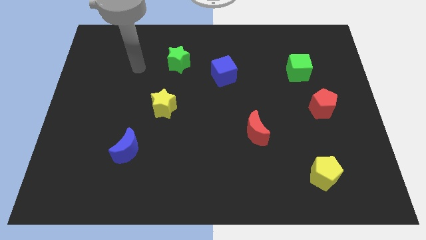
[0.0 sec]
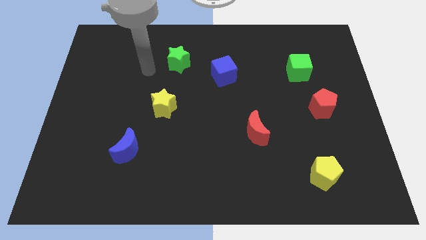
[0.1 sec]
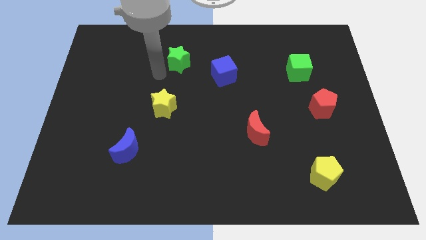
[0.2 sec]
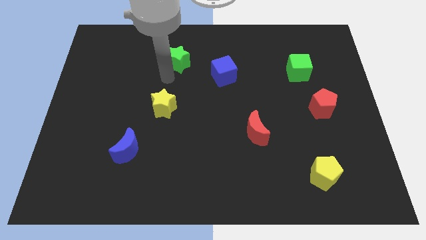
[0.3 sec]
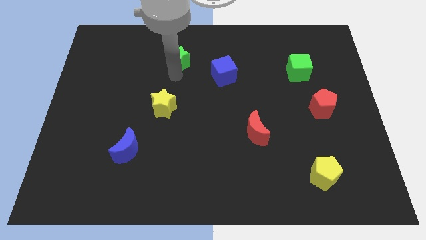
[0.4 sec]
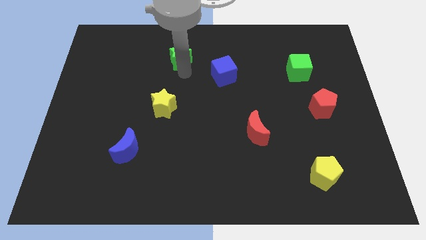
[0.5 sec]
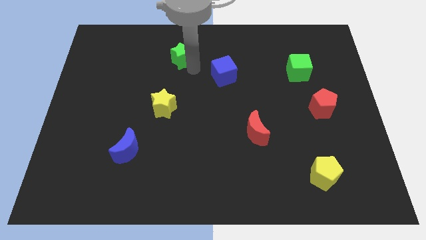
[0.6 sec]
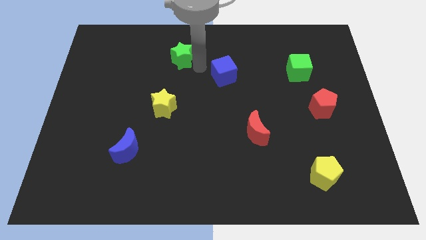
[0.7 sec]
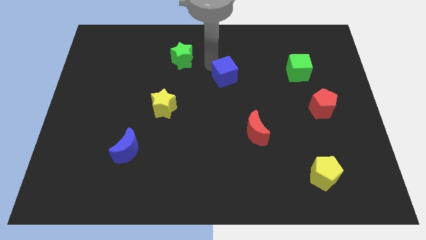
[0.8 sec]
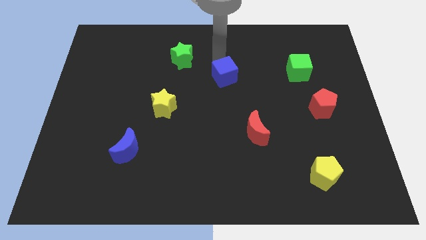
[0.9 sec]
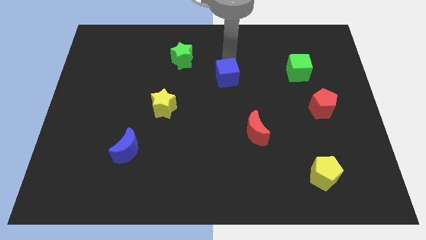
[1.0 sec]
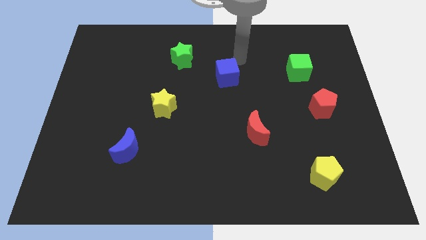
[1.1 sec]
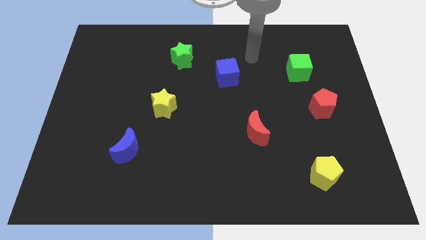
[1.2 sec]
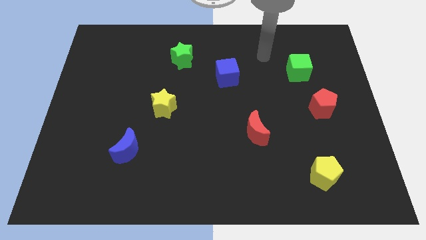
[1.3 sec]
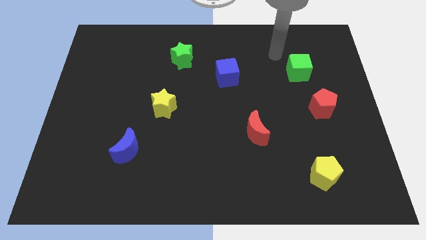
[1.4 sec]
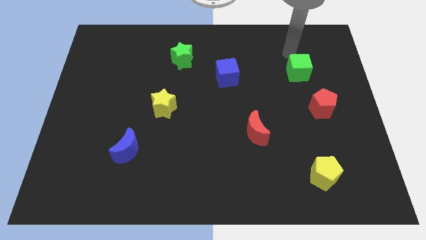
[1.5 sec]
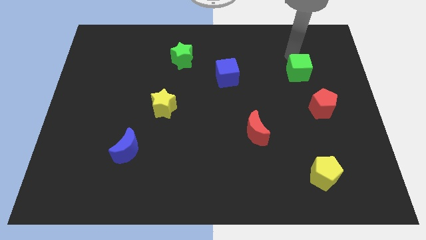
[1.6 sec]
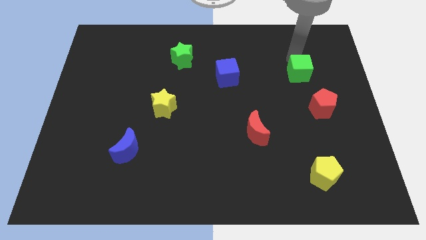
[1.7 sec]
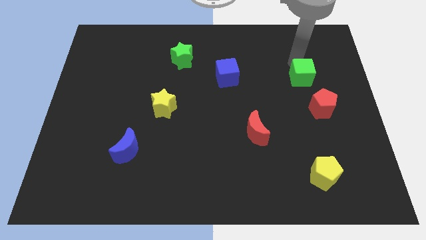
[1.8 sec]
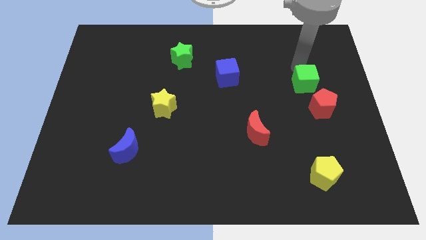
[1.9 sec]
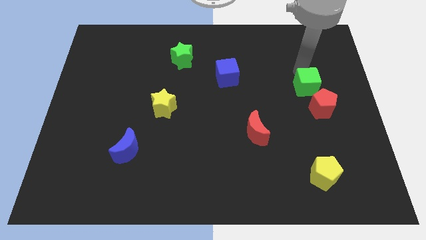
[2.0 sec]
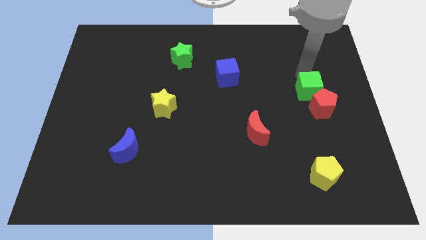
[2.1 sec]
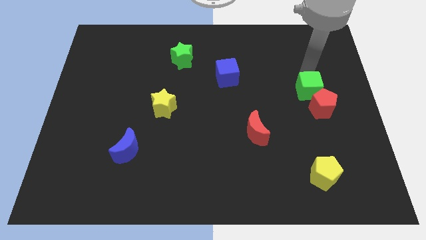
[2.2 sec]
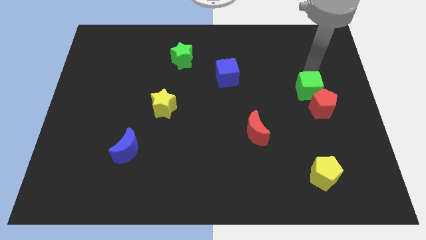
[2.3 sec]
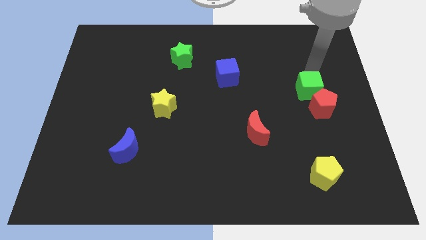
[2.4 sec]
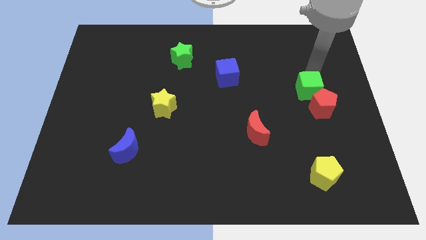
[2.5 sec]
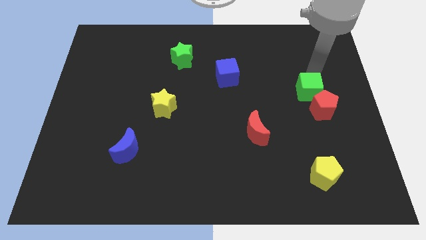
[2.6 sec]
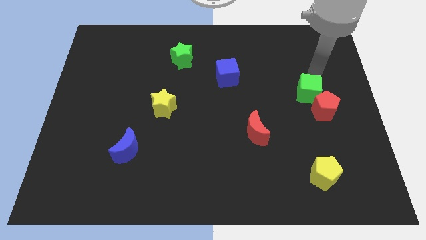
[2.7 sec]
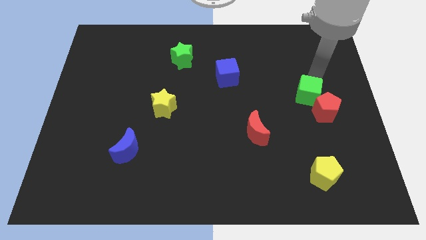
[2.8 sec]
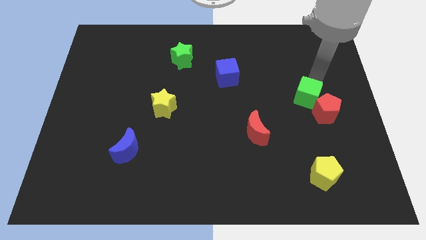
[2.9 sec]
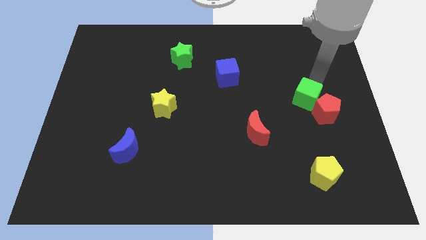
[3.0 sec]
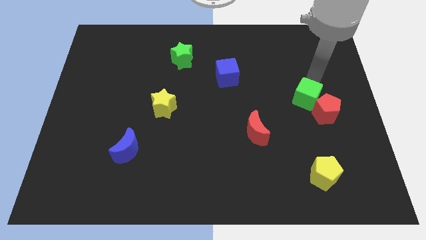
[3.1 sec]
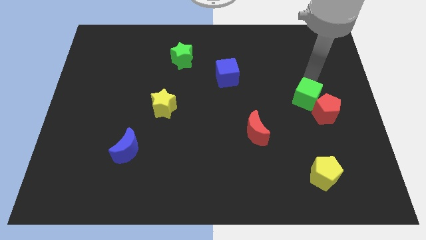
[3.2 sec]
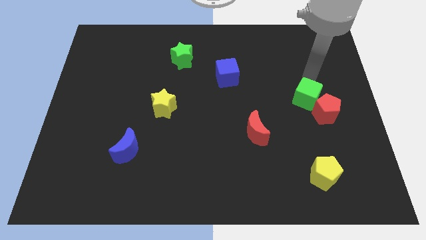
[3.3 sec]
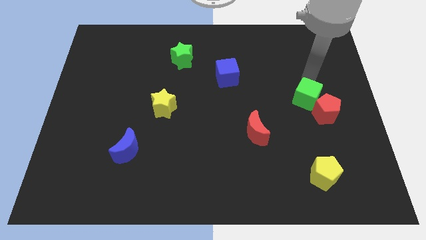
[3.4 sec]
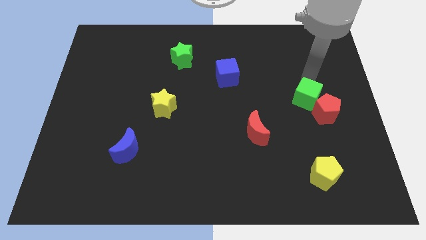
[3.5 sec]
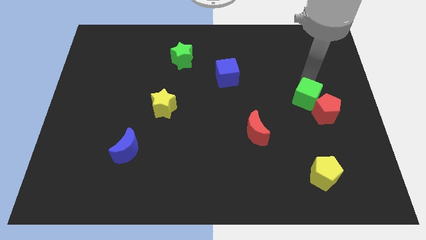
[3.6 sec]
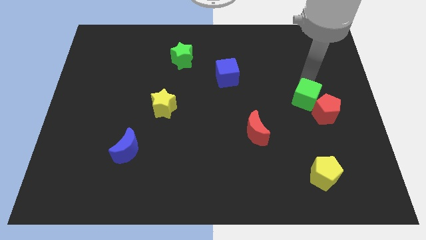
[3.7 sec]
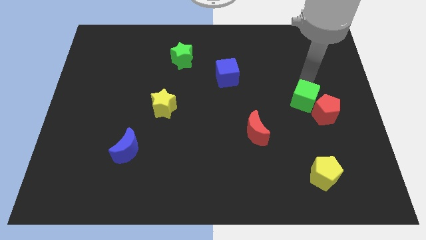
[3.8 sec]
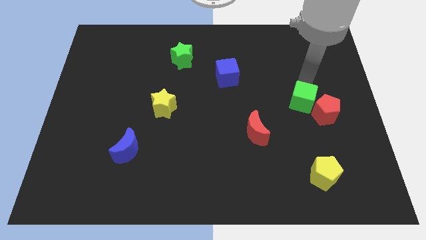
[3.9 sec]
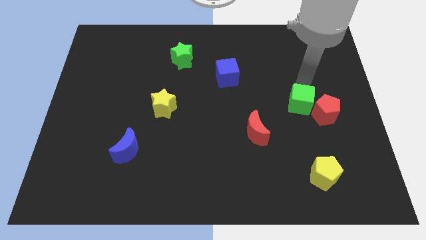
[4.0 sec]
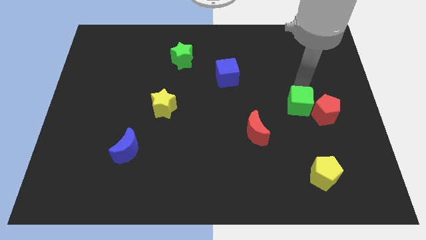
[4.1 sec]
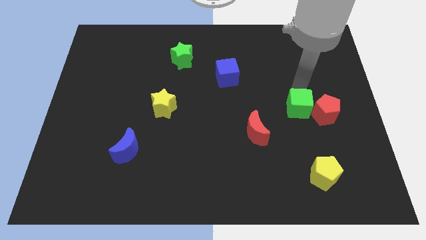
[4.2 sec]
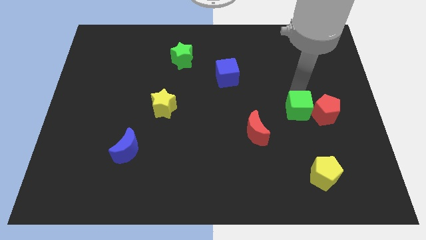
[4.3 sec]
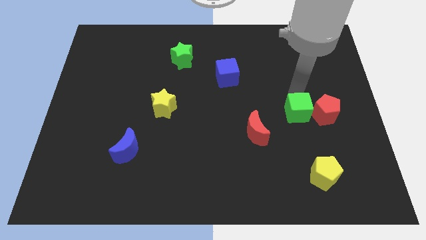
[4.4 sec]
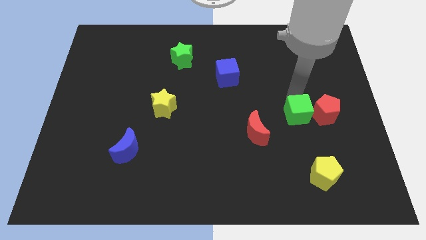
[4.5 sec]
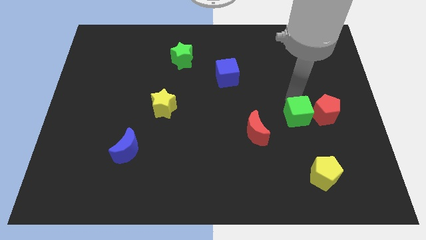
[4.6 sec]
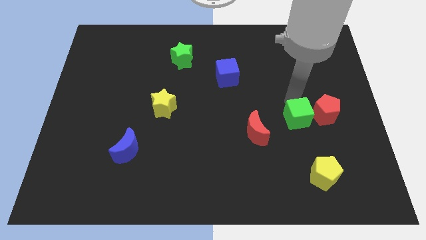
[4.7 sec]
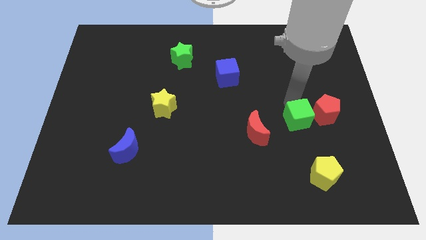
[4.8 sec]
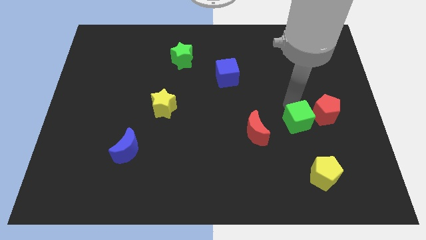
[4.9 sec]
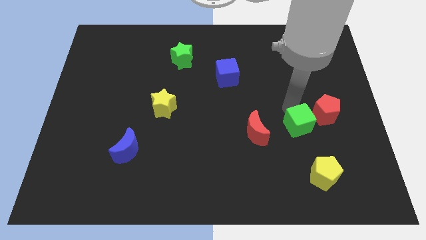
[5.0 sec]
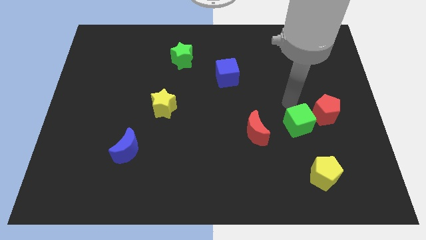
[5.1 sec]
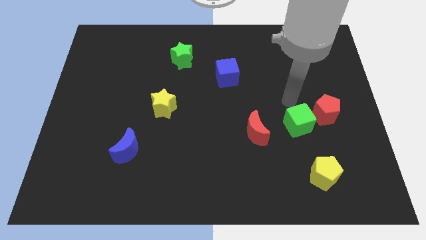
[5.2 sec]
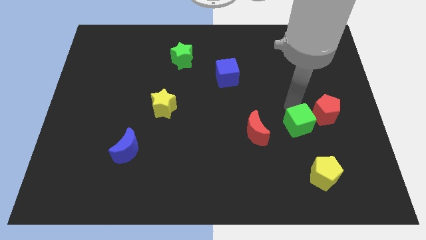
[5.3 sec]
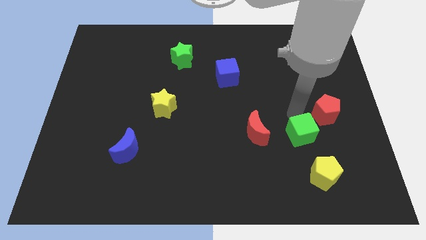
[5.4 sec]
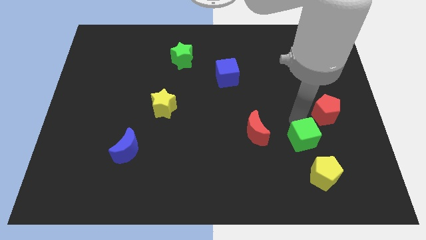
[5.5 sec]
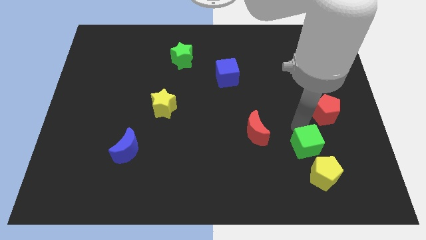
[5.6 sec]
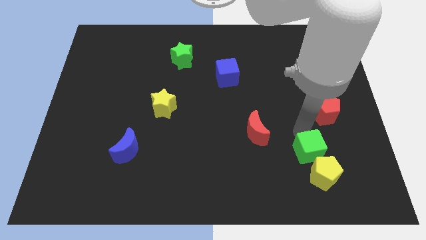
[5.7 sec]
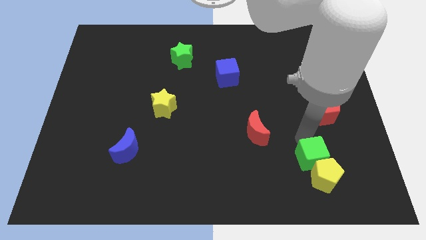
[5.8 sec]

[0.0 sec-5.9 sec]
move the green cube close to the yellow pentagon
